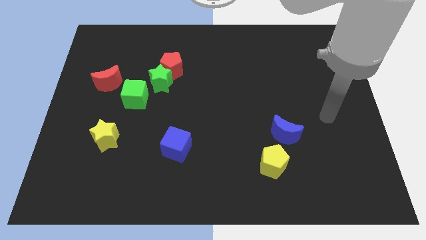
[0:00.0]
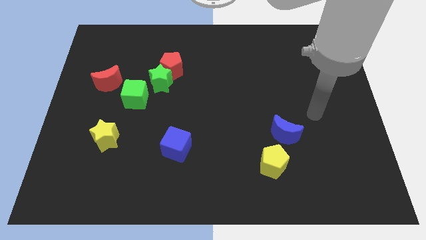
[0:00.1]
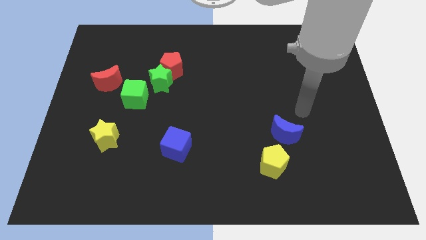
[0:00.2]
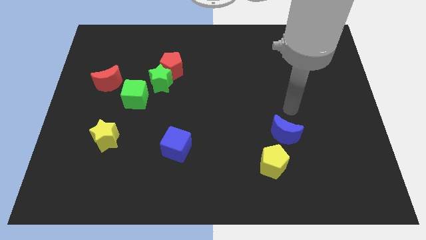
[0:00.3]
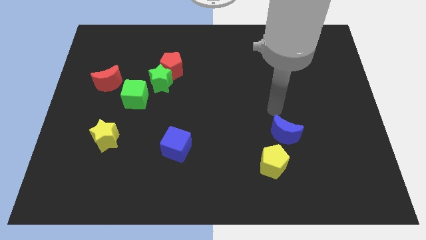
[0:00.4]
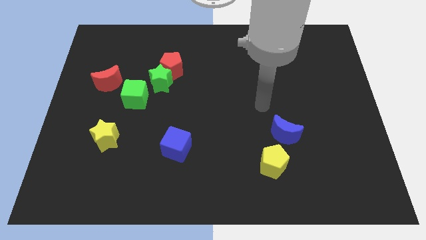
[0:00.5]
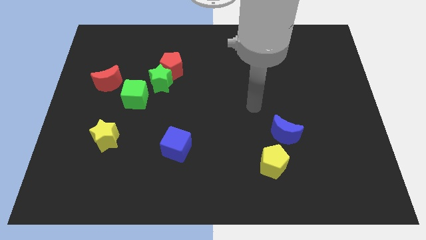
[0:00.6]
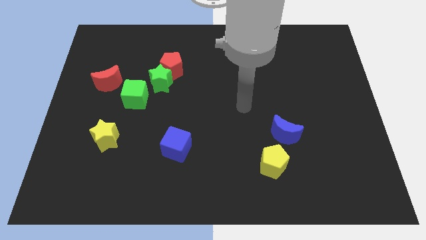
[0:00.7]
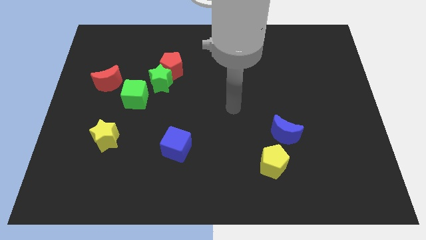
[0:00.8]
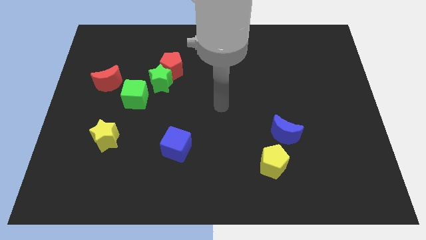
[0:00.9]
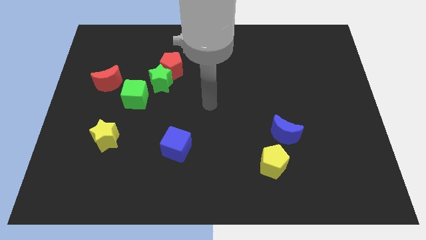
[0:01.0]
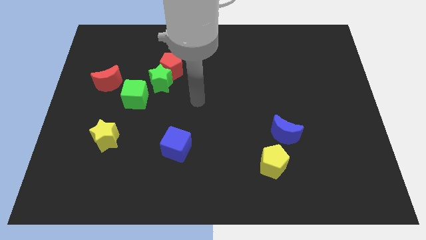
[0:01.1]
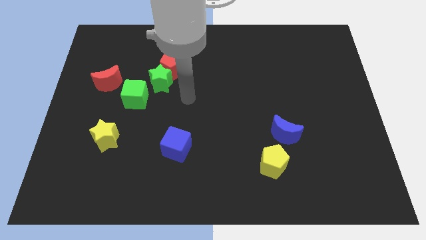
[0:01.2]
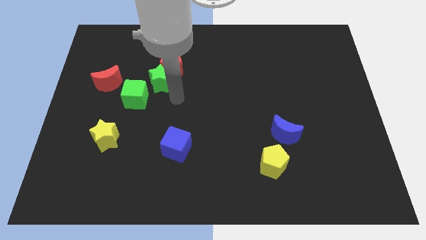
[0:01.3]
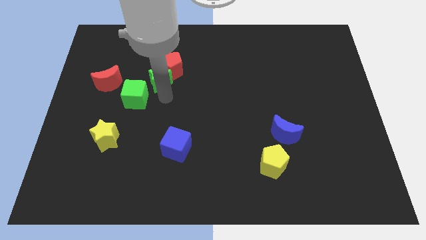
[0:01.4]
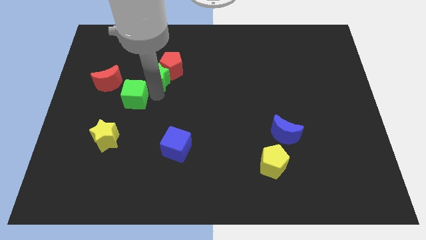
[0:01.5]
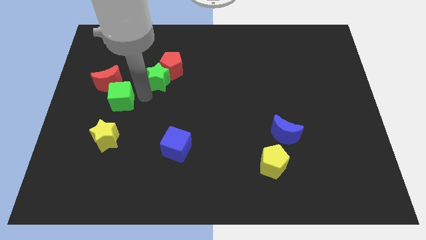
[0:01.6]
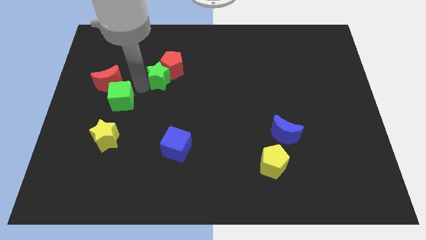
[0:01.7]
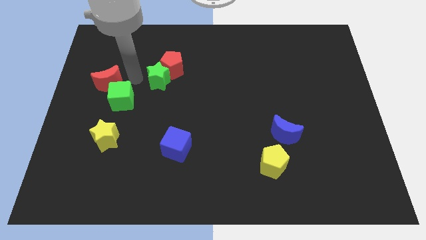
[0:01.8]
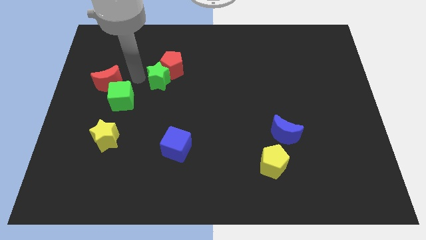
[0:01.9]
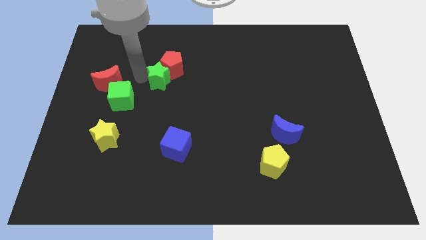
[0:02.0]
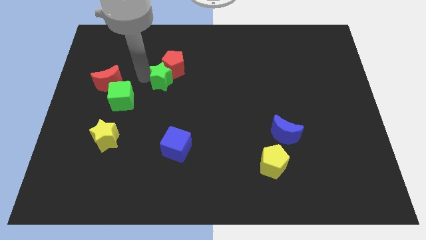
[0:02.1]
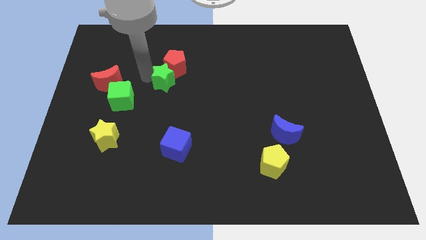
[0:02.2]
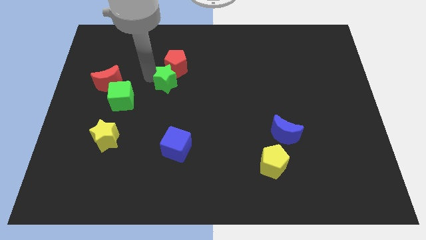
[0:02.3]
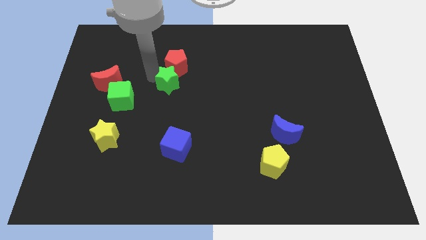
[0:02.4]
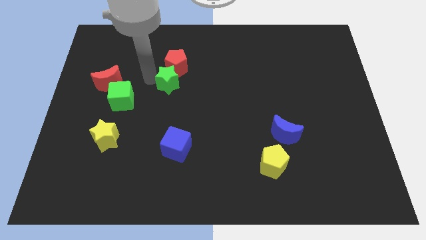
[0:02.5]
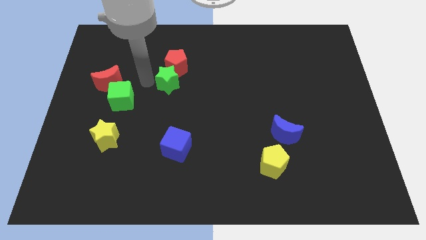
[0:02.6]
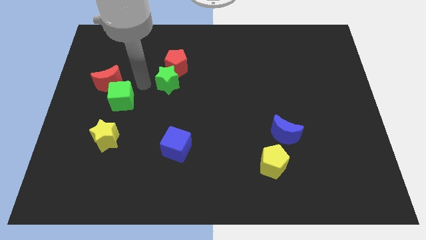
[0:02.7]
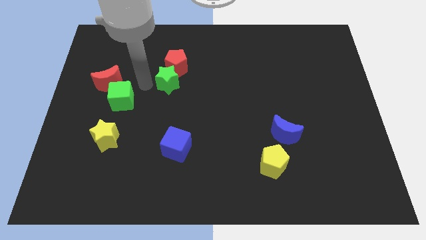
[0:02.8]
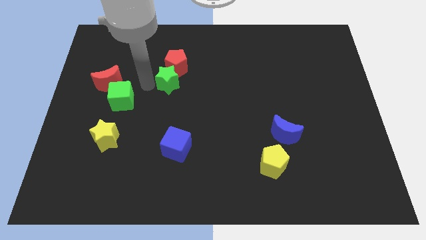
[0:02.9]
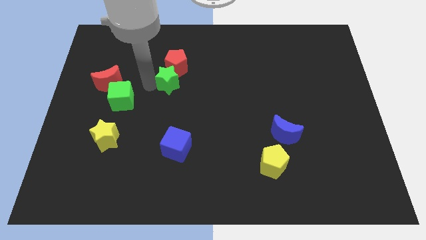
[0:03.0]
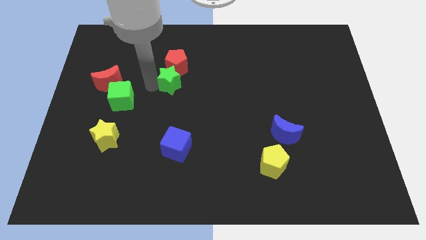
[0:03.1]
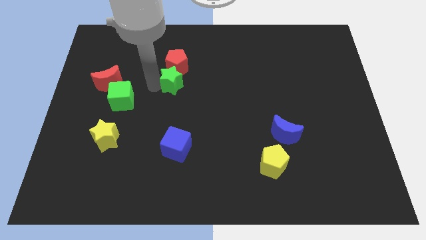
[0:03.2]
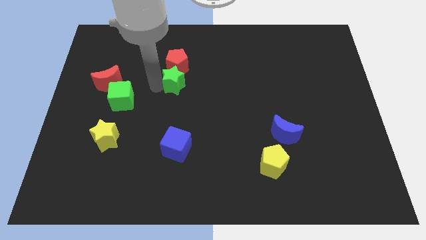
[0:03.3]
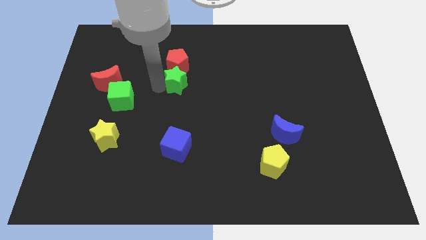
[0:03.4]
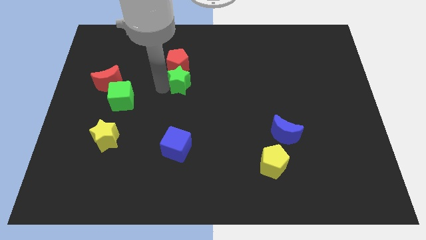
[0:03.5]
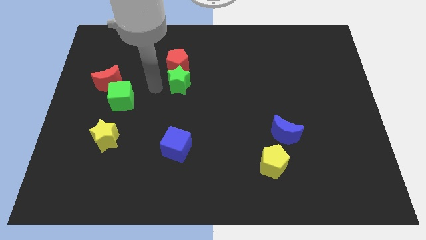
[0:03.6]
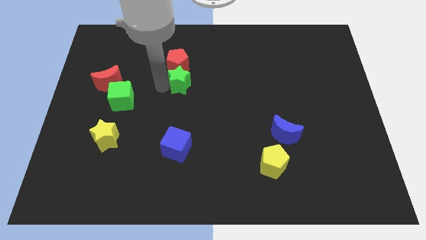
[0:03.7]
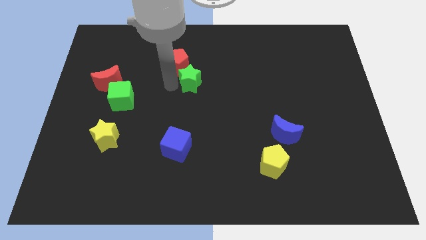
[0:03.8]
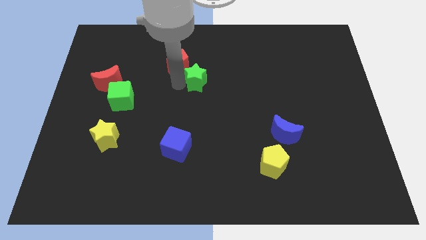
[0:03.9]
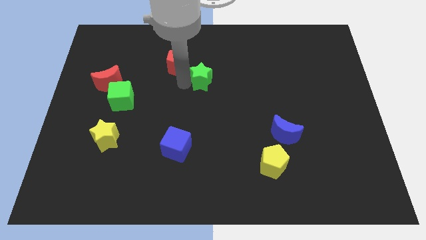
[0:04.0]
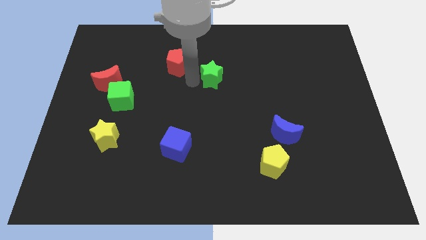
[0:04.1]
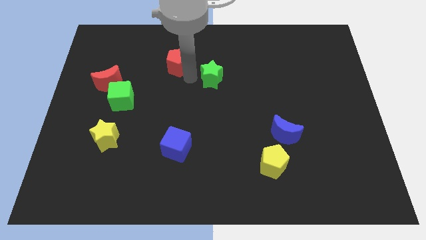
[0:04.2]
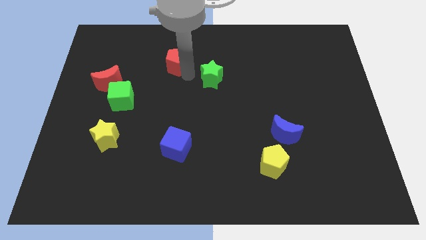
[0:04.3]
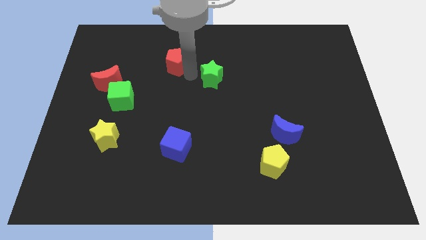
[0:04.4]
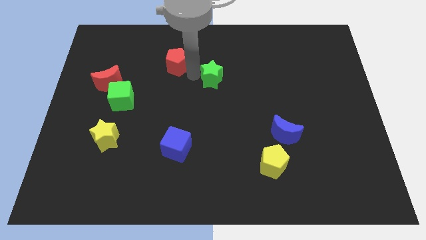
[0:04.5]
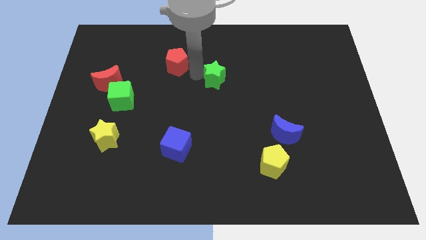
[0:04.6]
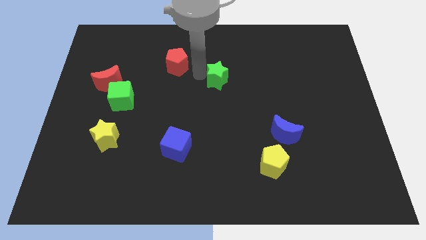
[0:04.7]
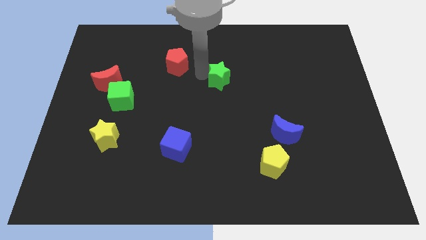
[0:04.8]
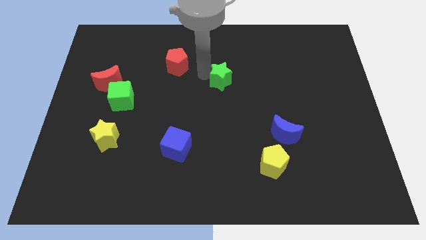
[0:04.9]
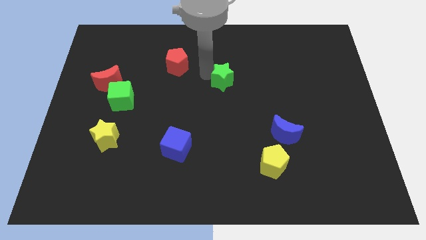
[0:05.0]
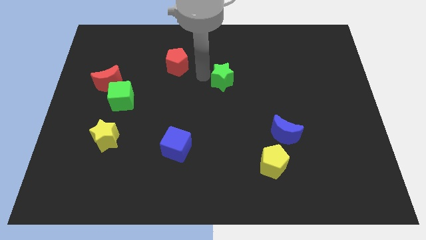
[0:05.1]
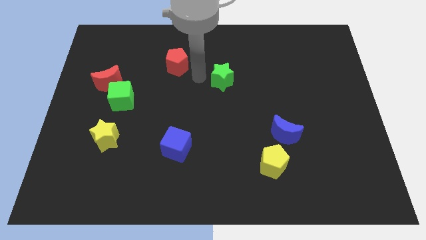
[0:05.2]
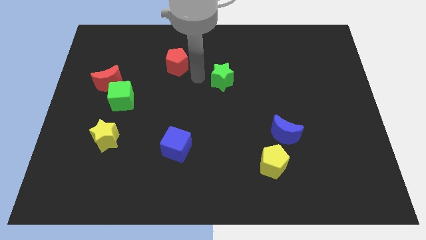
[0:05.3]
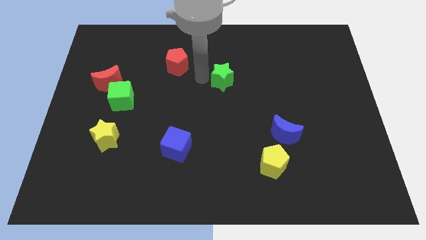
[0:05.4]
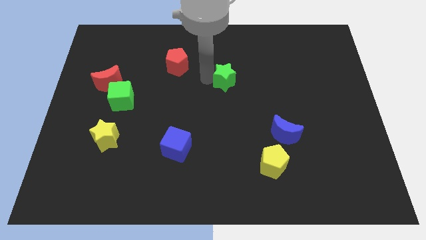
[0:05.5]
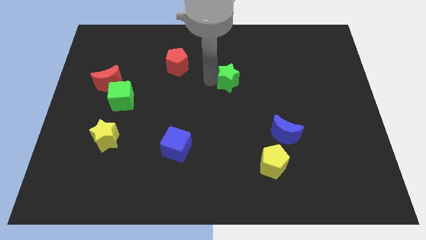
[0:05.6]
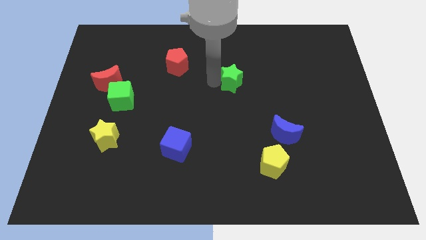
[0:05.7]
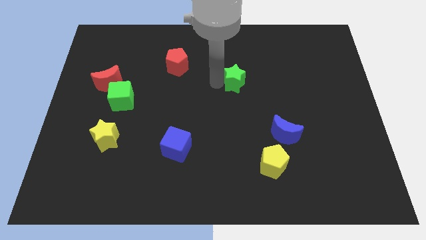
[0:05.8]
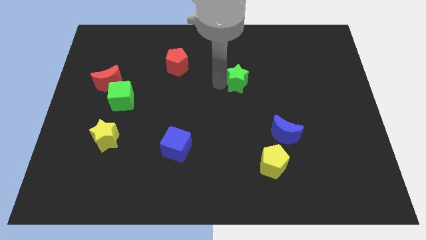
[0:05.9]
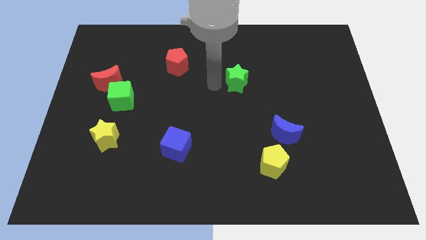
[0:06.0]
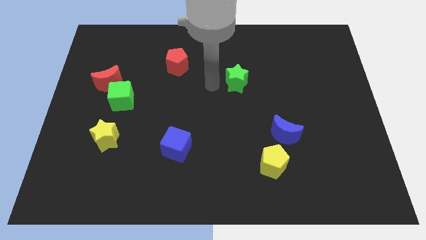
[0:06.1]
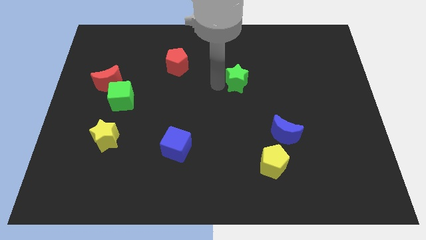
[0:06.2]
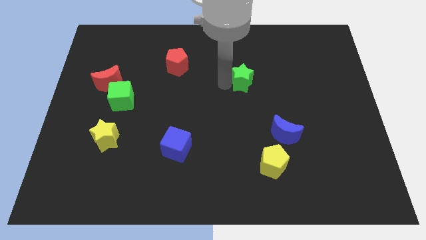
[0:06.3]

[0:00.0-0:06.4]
move the green star right

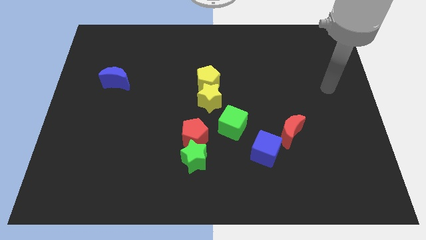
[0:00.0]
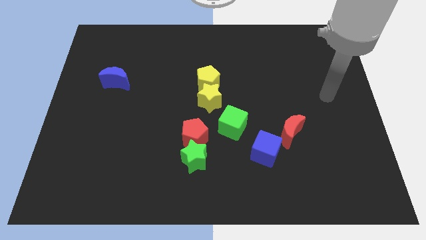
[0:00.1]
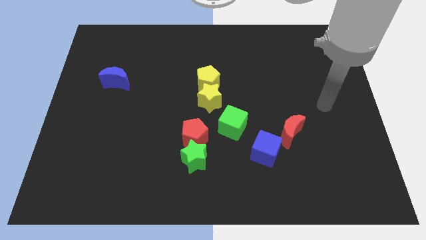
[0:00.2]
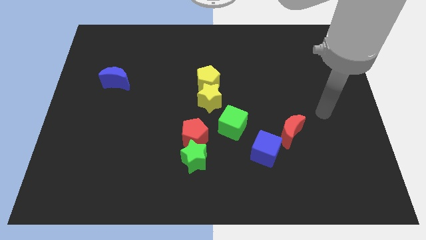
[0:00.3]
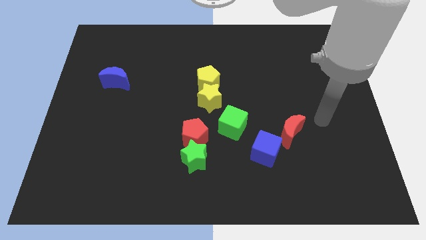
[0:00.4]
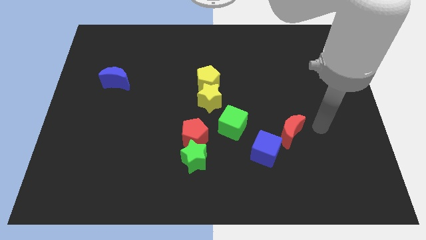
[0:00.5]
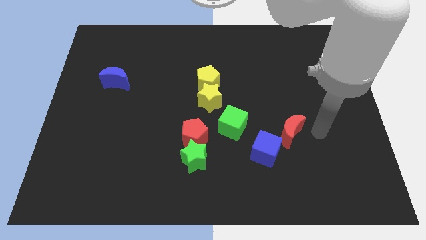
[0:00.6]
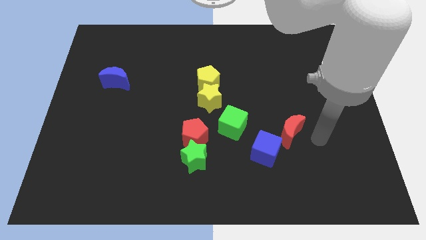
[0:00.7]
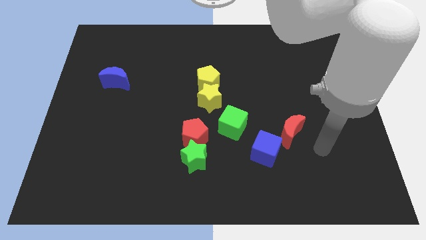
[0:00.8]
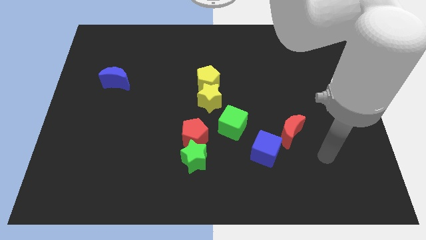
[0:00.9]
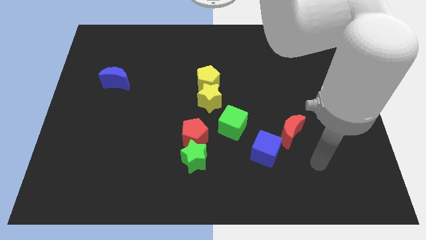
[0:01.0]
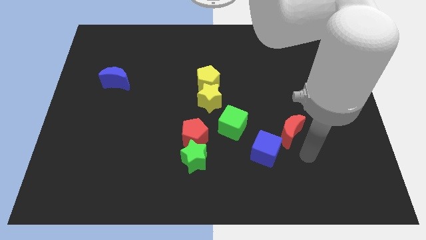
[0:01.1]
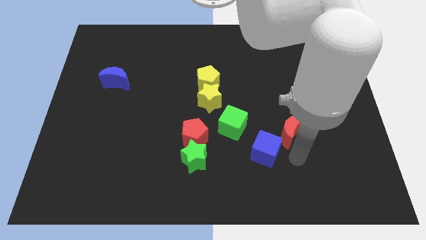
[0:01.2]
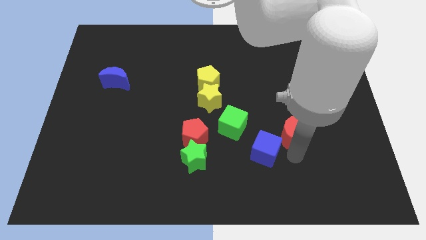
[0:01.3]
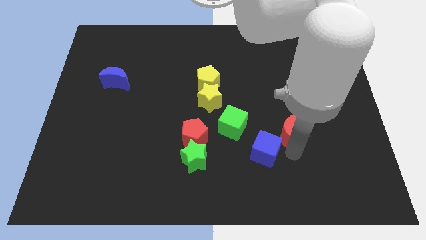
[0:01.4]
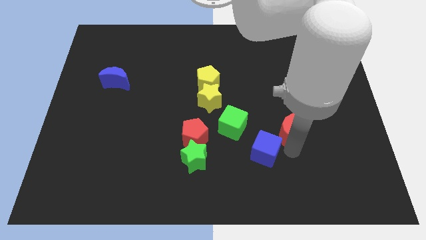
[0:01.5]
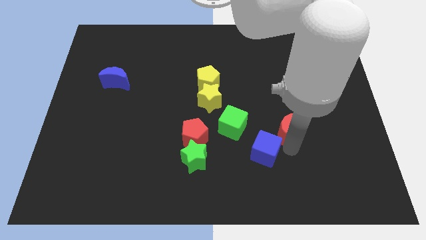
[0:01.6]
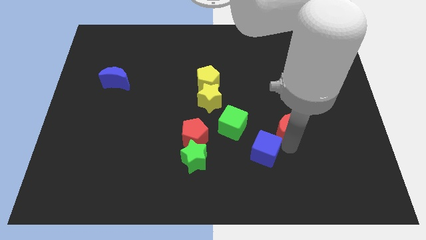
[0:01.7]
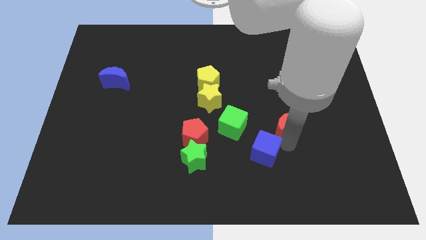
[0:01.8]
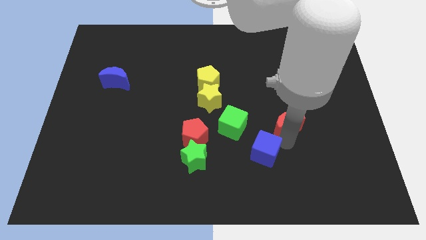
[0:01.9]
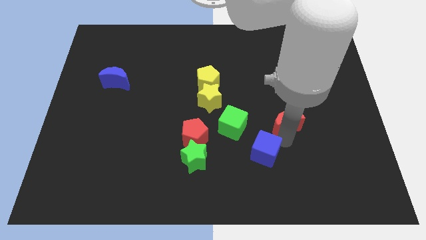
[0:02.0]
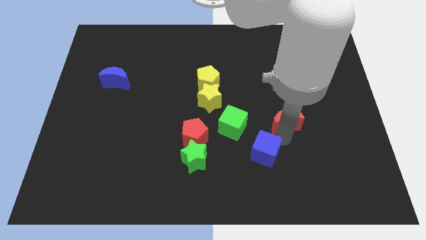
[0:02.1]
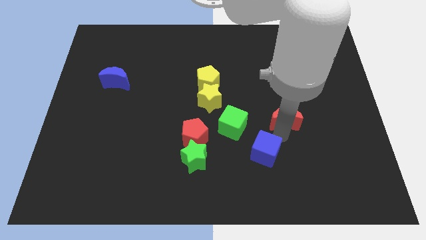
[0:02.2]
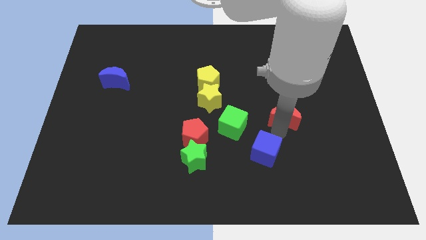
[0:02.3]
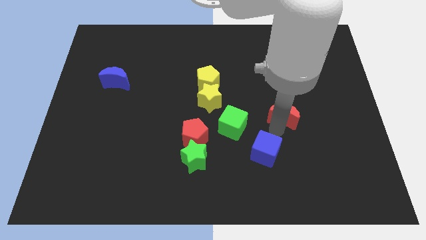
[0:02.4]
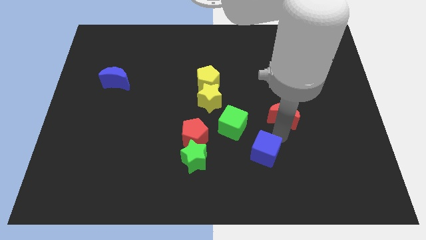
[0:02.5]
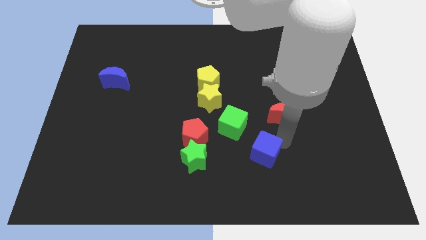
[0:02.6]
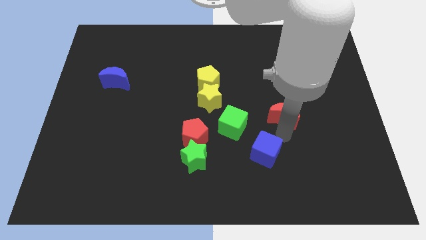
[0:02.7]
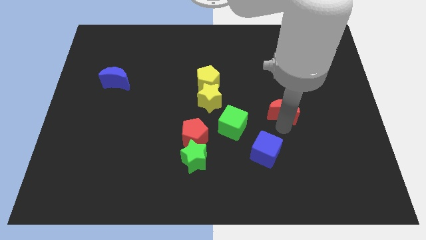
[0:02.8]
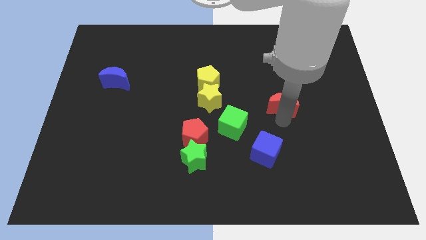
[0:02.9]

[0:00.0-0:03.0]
push the red moon a little bit up
